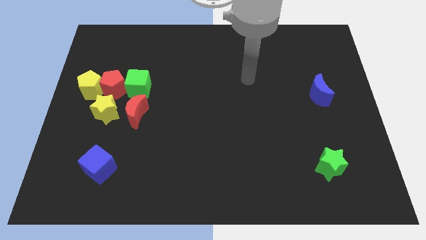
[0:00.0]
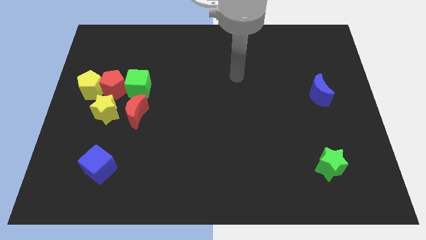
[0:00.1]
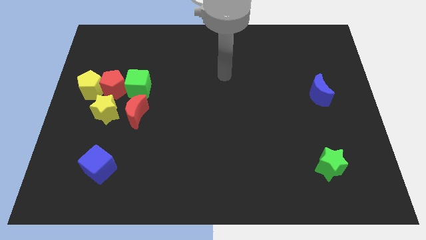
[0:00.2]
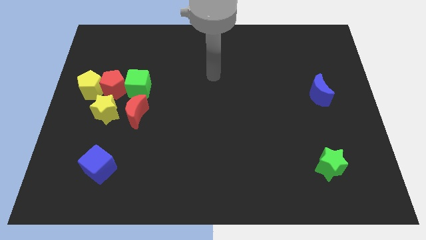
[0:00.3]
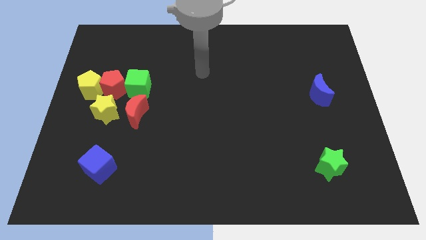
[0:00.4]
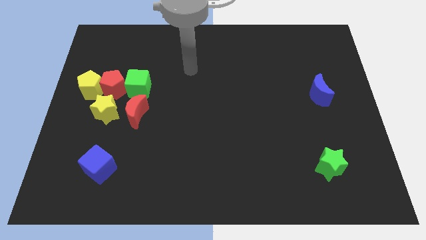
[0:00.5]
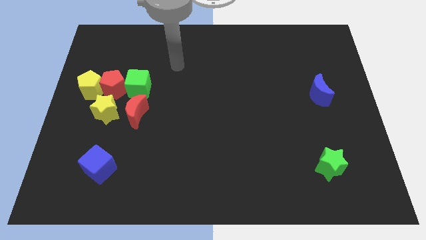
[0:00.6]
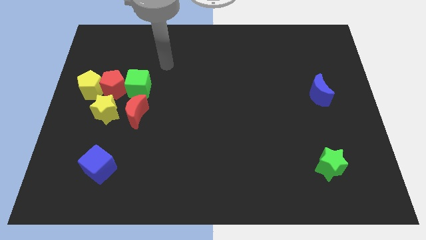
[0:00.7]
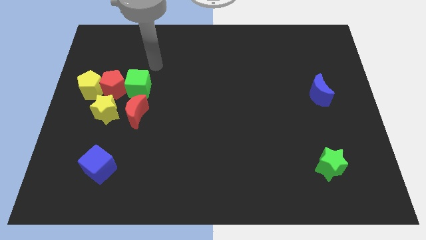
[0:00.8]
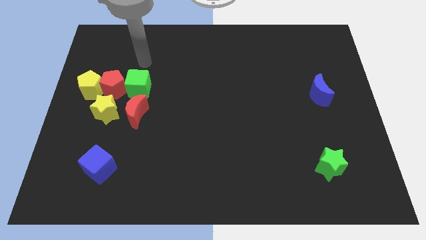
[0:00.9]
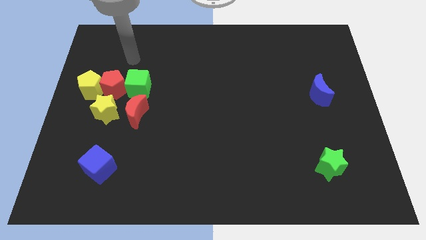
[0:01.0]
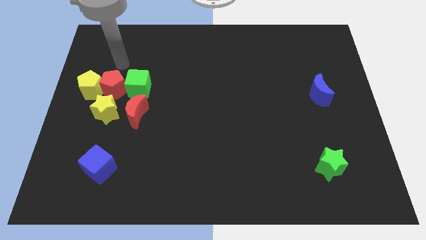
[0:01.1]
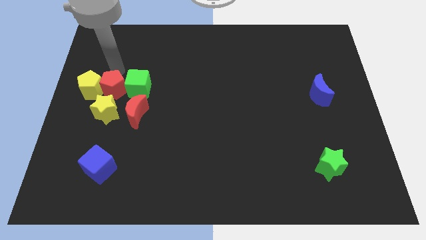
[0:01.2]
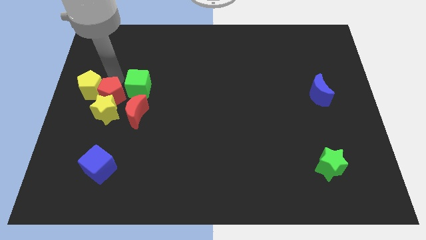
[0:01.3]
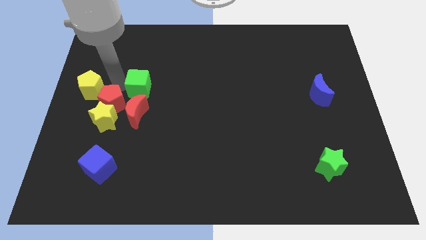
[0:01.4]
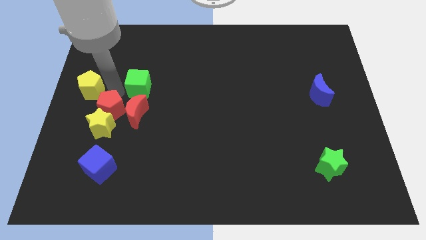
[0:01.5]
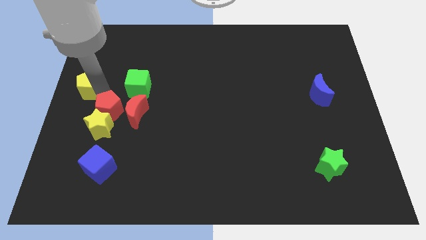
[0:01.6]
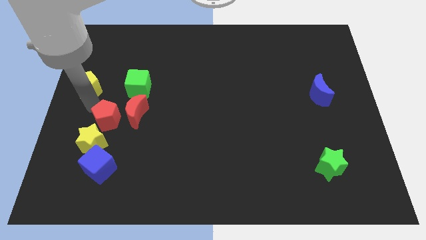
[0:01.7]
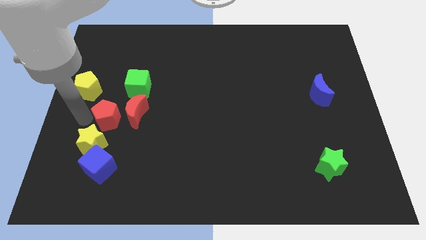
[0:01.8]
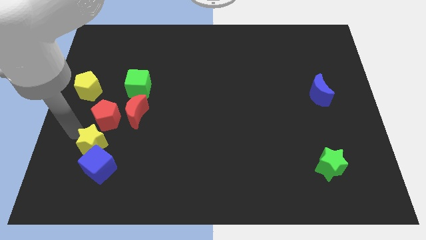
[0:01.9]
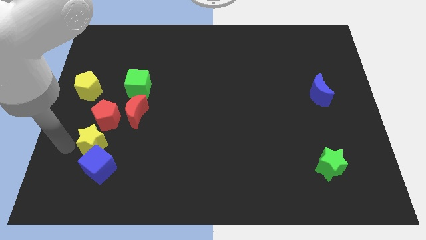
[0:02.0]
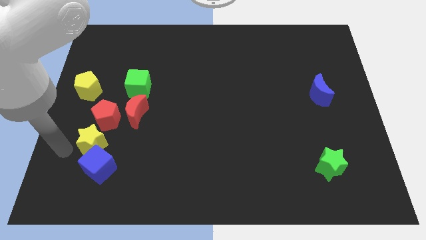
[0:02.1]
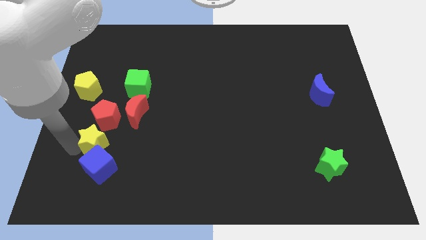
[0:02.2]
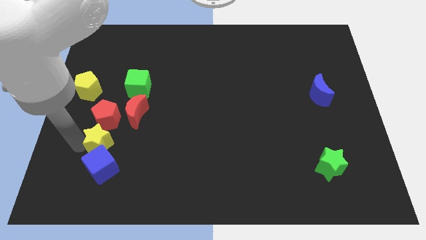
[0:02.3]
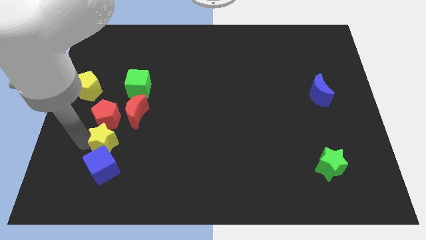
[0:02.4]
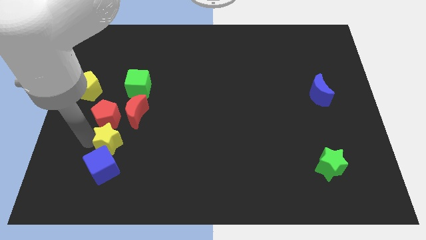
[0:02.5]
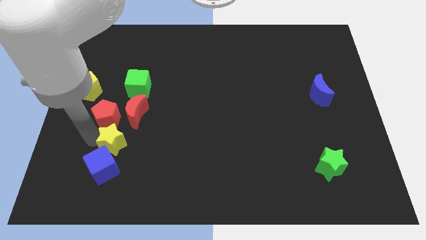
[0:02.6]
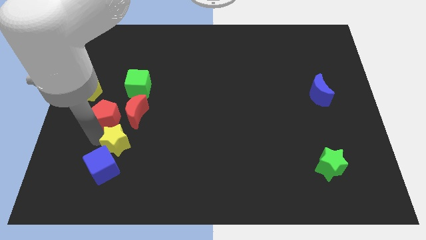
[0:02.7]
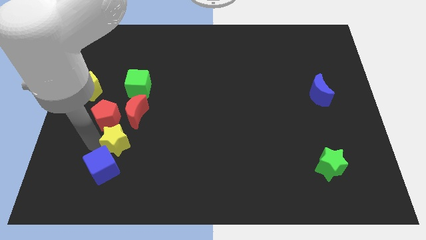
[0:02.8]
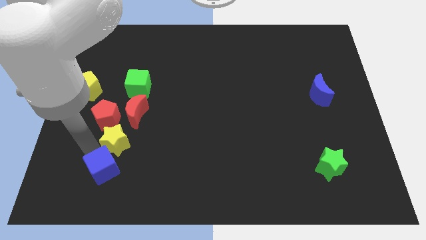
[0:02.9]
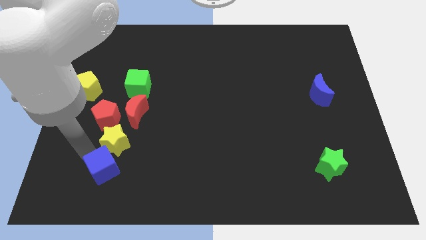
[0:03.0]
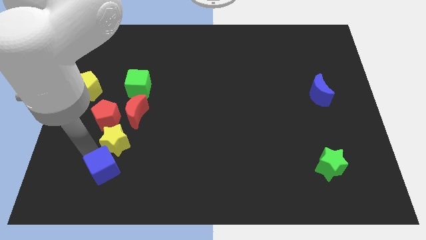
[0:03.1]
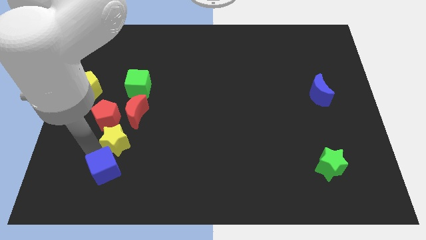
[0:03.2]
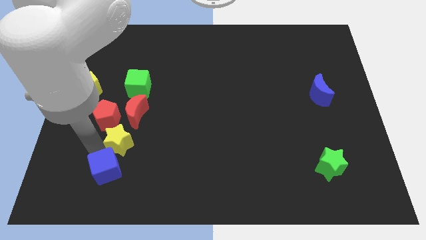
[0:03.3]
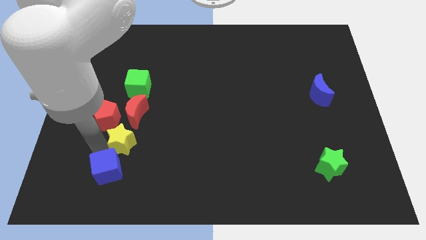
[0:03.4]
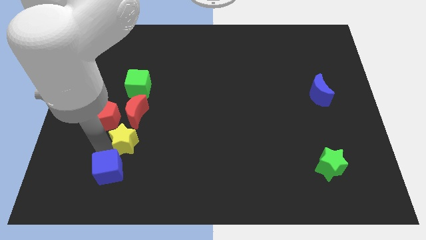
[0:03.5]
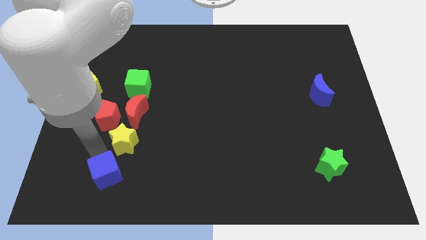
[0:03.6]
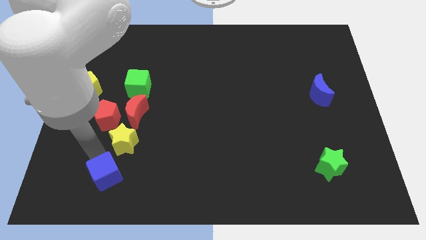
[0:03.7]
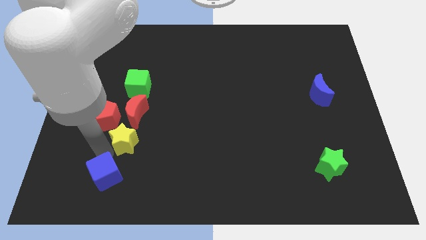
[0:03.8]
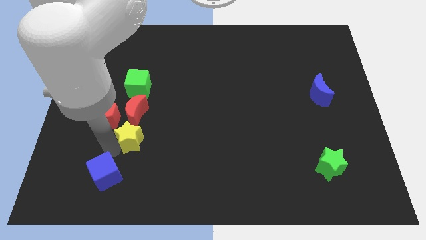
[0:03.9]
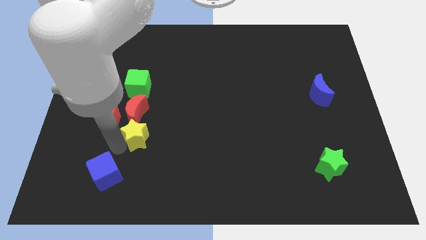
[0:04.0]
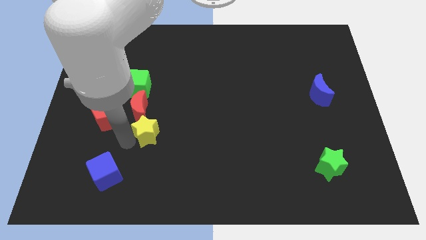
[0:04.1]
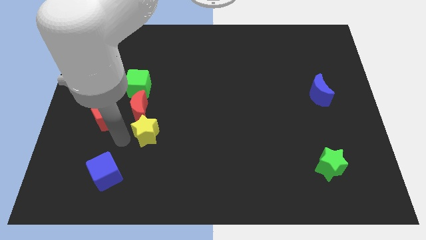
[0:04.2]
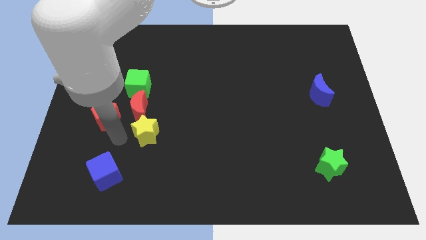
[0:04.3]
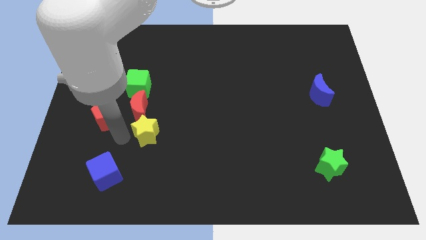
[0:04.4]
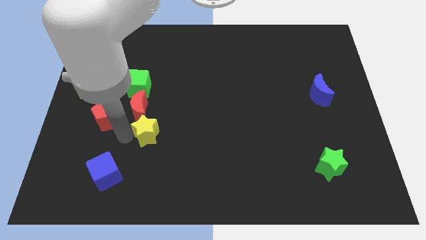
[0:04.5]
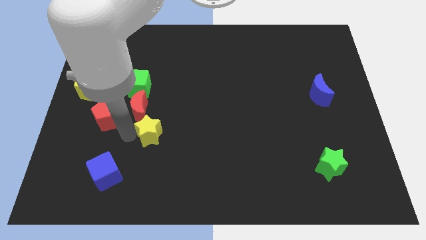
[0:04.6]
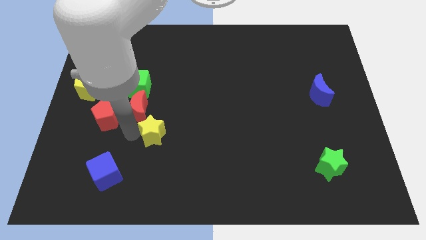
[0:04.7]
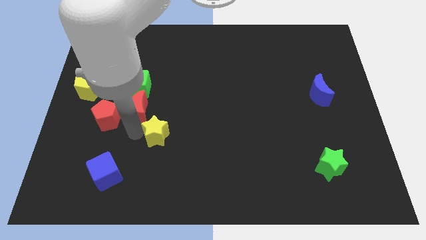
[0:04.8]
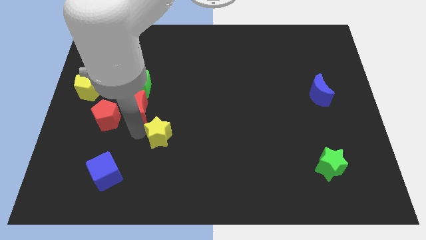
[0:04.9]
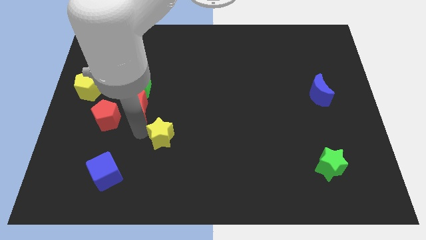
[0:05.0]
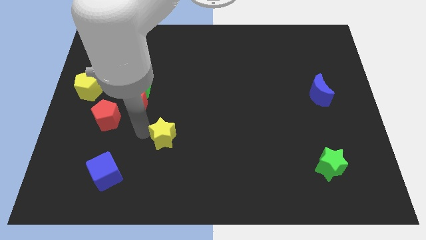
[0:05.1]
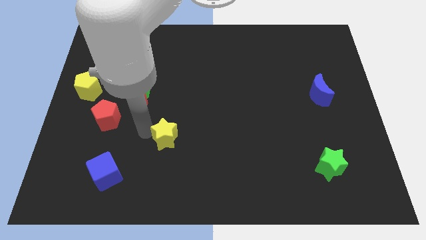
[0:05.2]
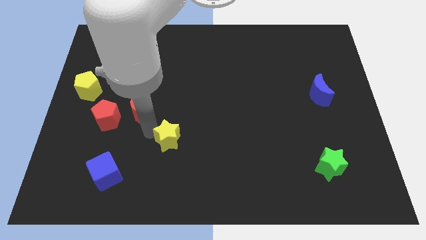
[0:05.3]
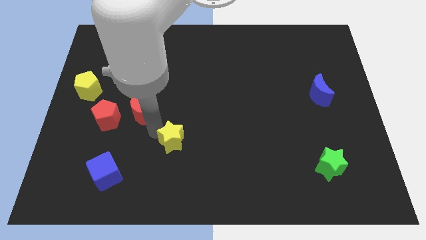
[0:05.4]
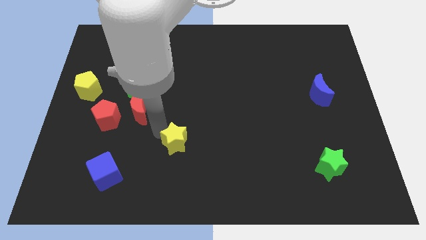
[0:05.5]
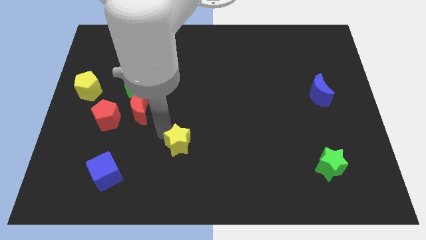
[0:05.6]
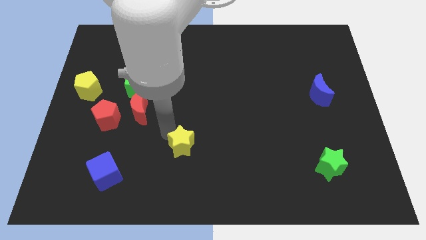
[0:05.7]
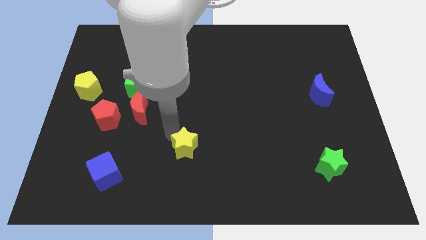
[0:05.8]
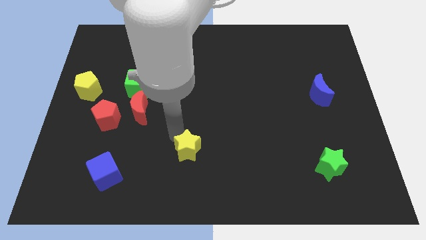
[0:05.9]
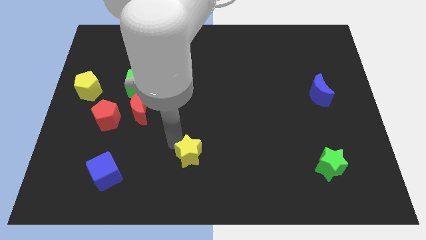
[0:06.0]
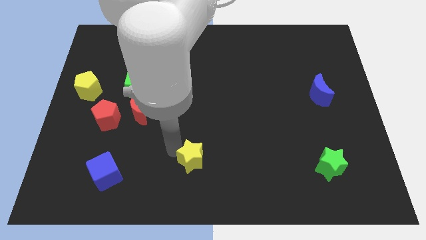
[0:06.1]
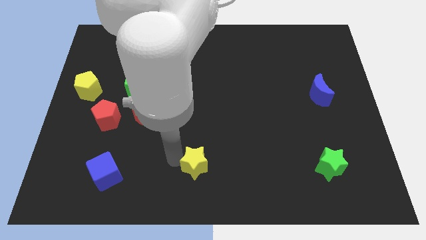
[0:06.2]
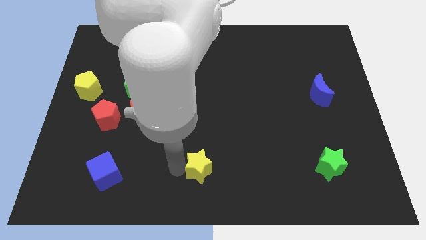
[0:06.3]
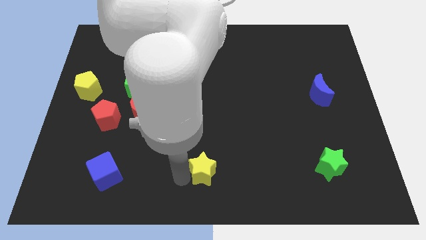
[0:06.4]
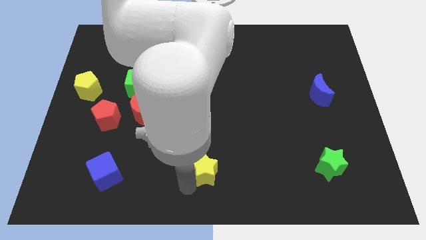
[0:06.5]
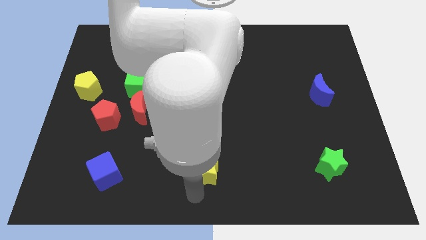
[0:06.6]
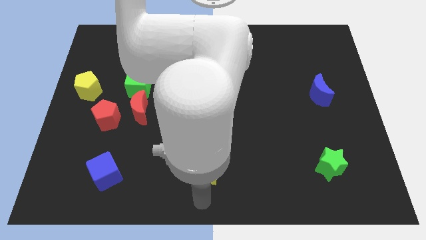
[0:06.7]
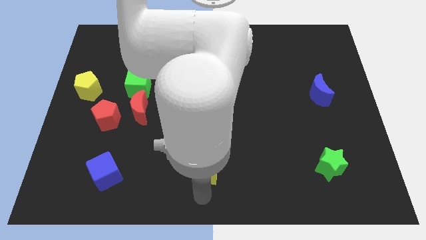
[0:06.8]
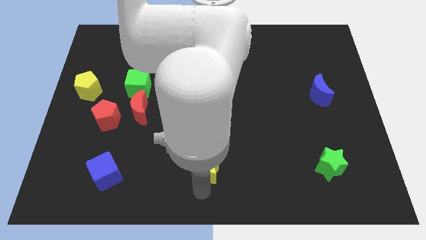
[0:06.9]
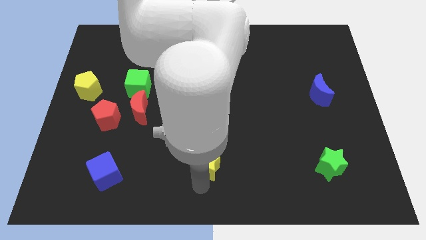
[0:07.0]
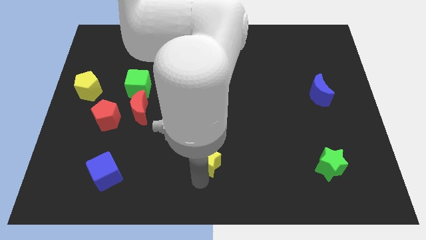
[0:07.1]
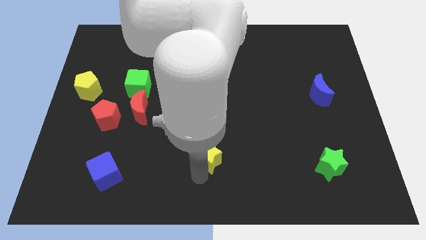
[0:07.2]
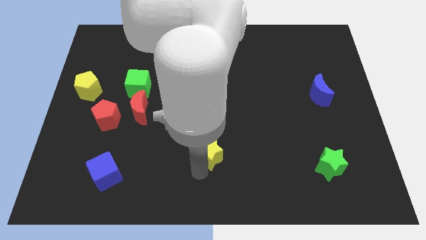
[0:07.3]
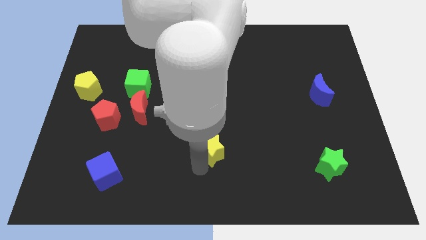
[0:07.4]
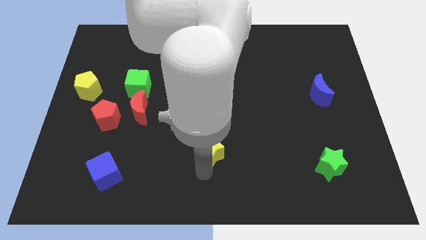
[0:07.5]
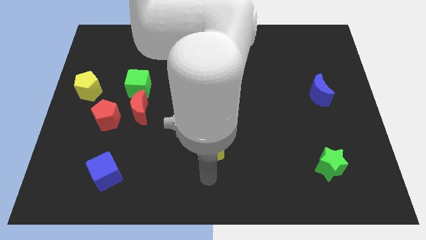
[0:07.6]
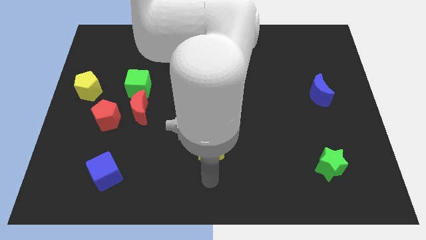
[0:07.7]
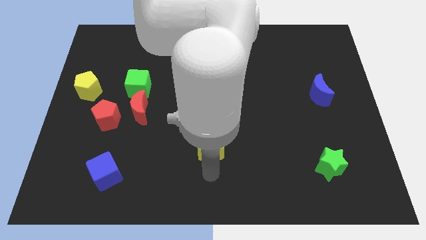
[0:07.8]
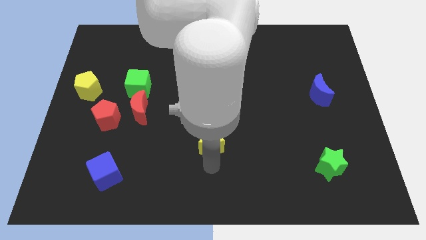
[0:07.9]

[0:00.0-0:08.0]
slide the yellow star right
